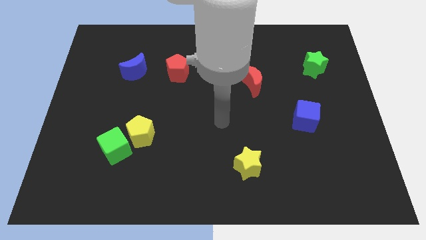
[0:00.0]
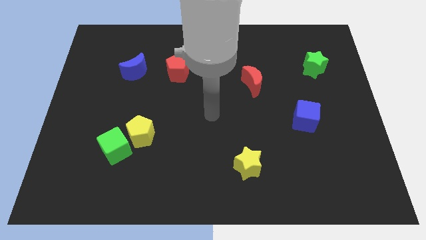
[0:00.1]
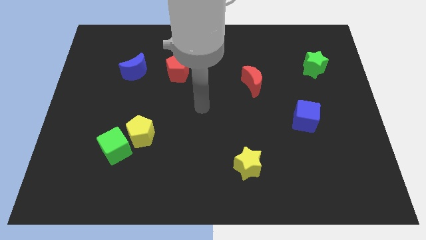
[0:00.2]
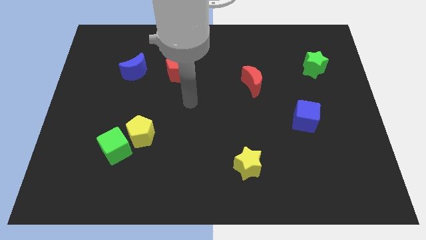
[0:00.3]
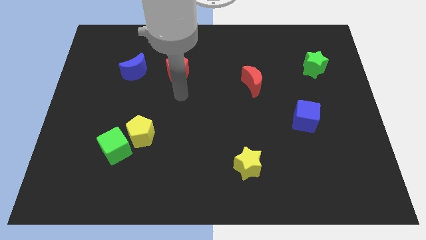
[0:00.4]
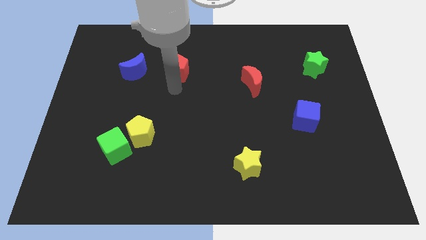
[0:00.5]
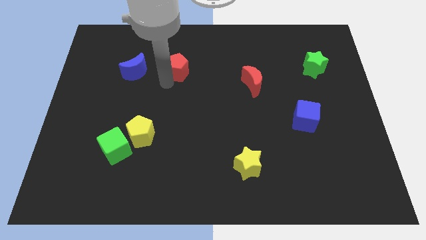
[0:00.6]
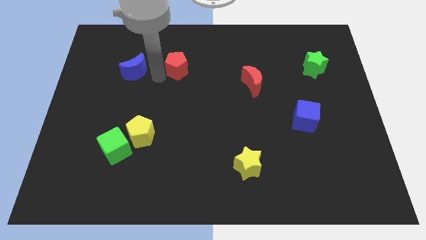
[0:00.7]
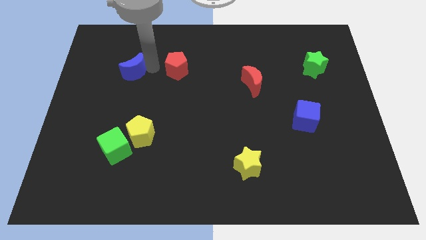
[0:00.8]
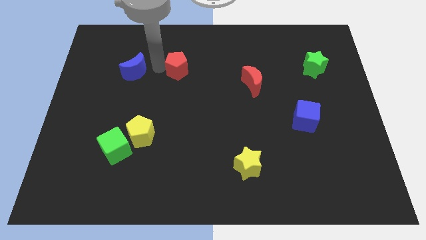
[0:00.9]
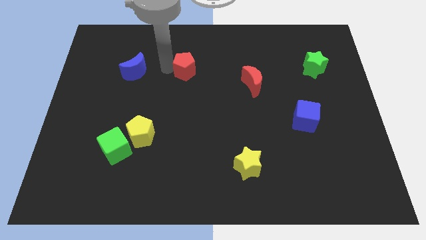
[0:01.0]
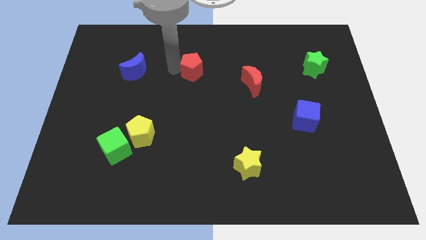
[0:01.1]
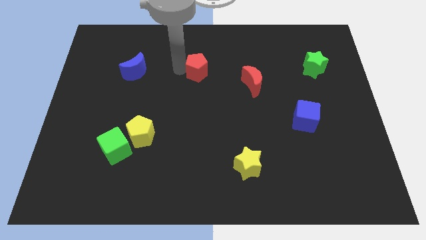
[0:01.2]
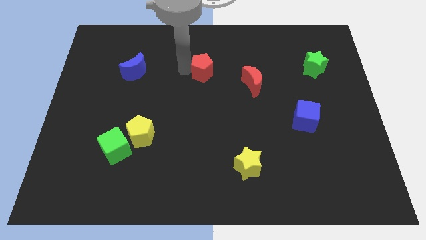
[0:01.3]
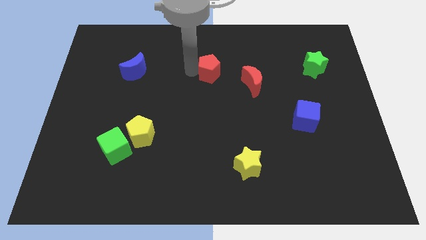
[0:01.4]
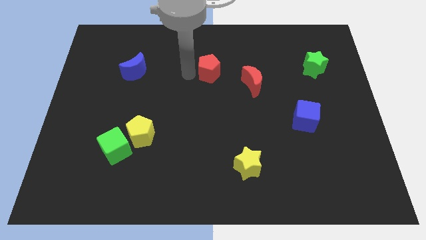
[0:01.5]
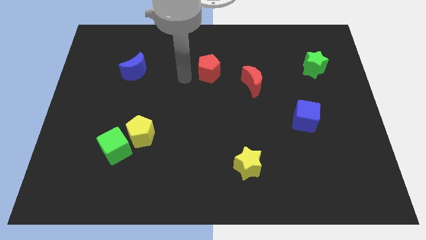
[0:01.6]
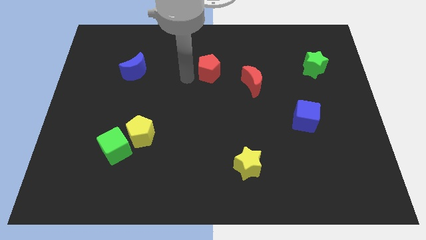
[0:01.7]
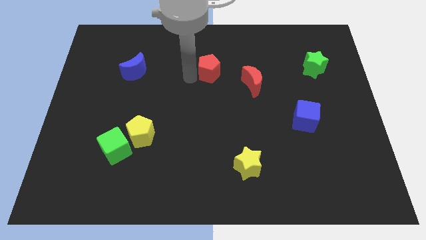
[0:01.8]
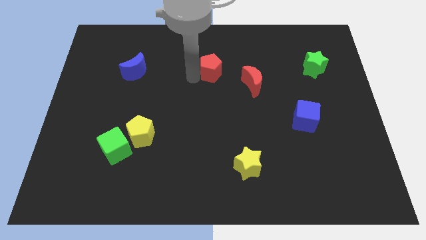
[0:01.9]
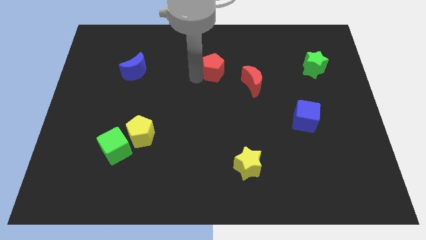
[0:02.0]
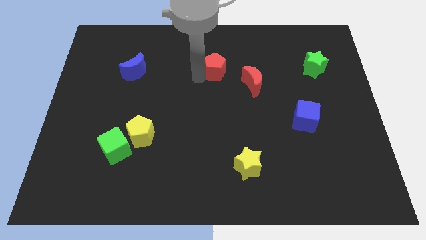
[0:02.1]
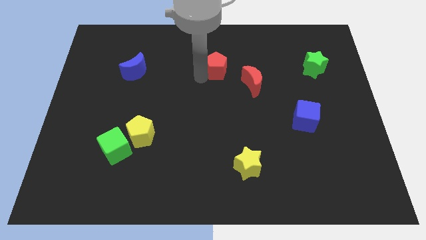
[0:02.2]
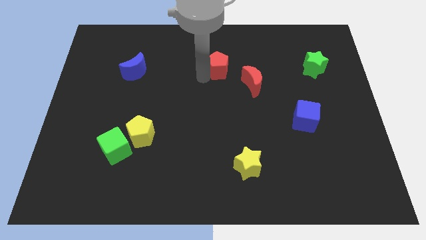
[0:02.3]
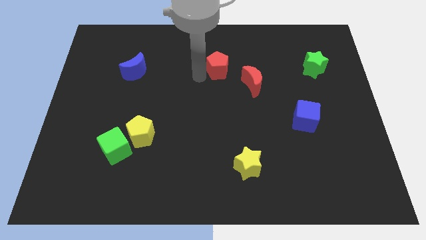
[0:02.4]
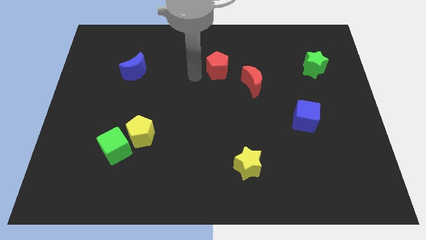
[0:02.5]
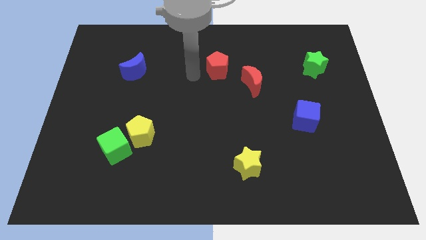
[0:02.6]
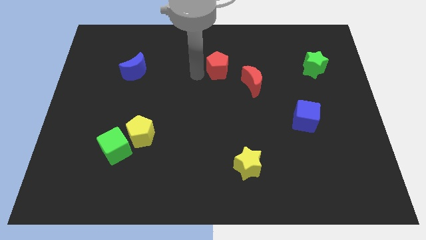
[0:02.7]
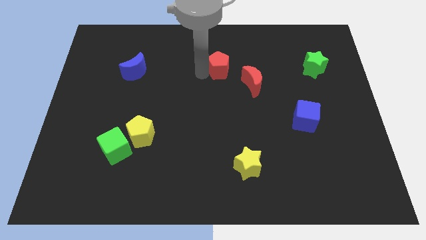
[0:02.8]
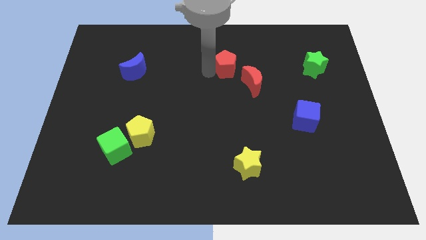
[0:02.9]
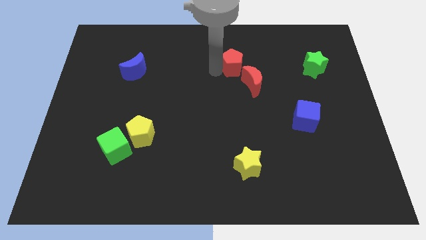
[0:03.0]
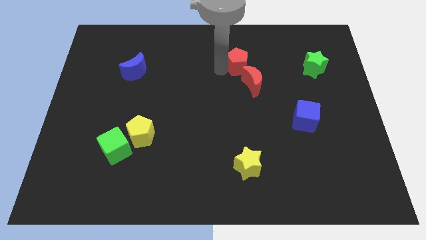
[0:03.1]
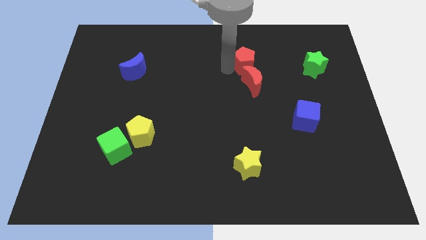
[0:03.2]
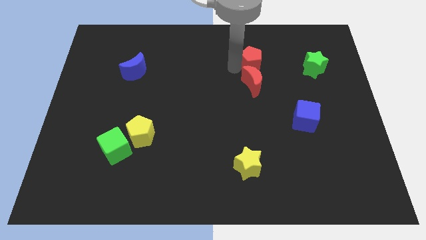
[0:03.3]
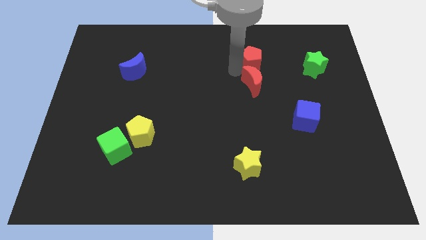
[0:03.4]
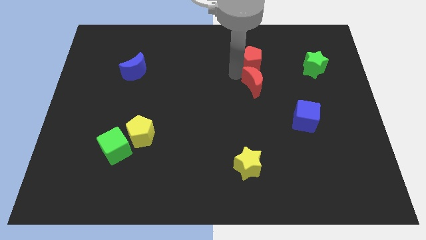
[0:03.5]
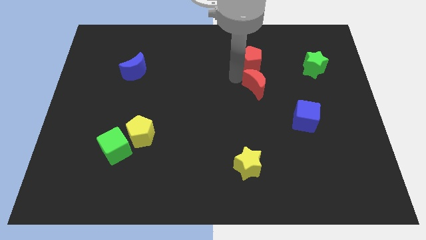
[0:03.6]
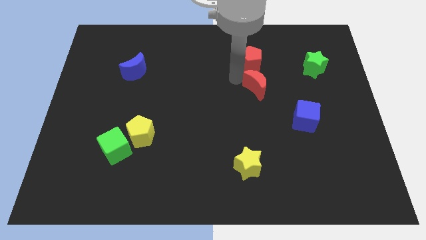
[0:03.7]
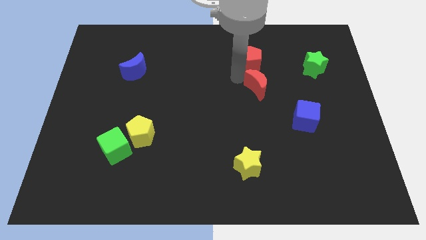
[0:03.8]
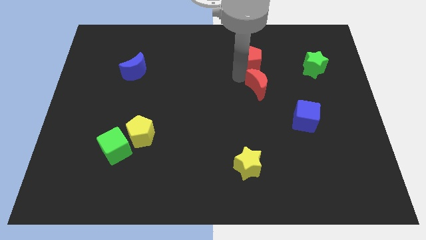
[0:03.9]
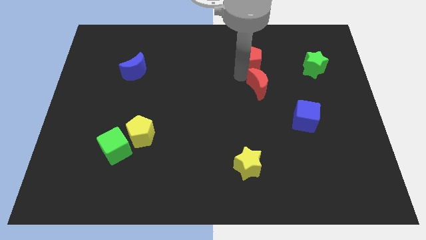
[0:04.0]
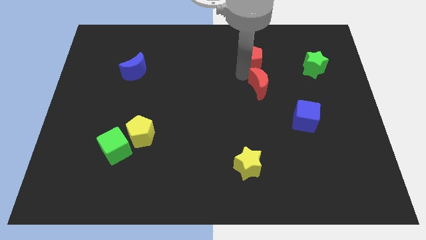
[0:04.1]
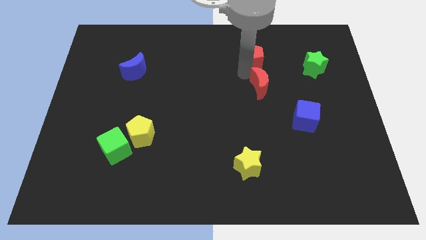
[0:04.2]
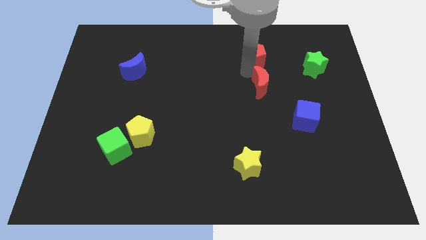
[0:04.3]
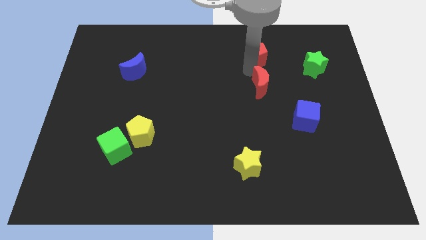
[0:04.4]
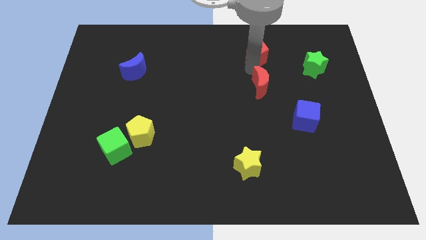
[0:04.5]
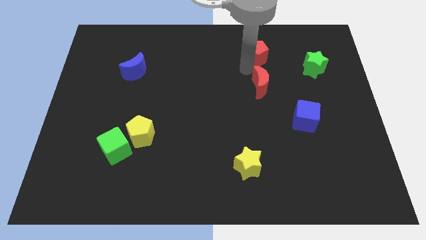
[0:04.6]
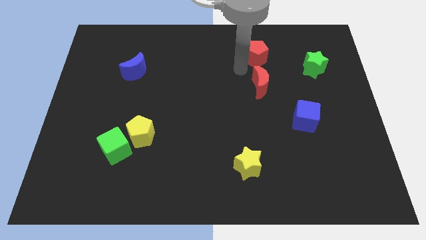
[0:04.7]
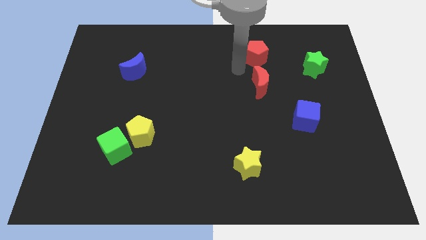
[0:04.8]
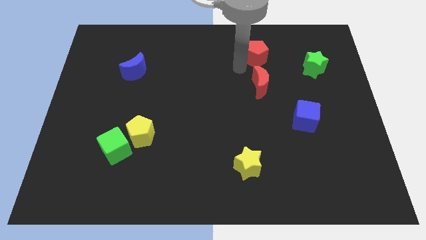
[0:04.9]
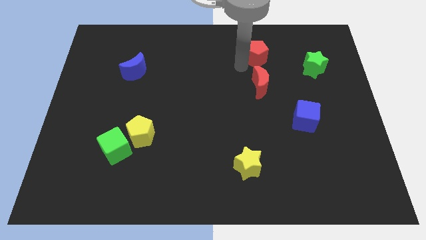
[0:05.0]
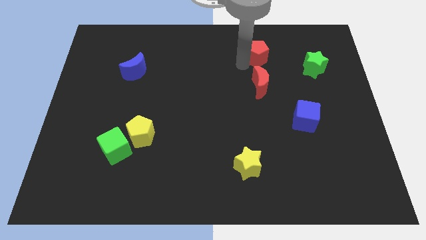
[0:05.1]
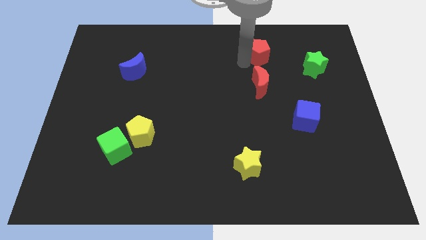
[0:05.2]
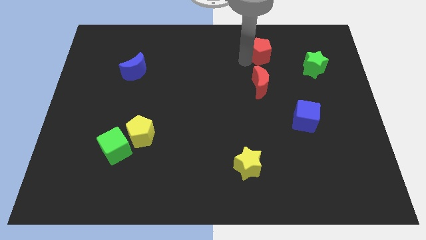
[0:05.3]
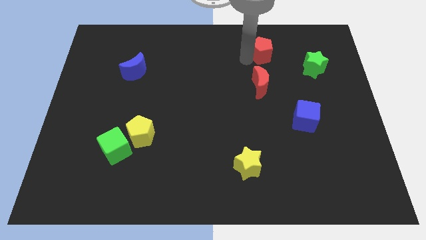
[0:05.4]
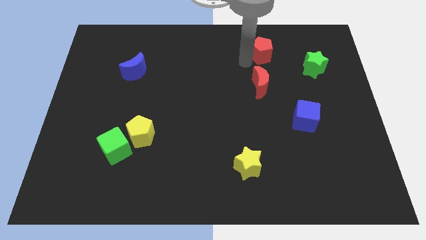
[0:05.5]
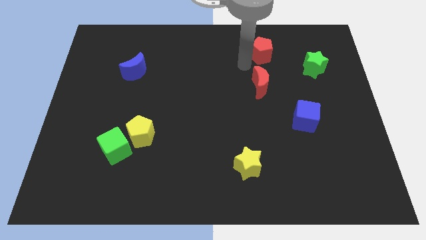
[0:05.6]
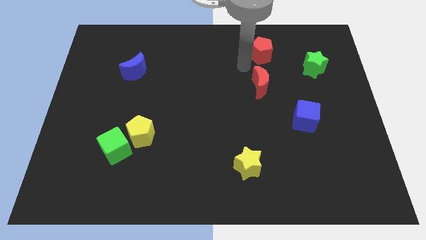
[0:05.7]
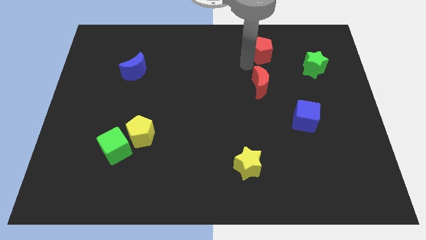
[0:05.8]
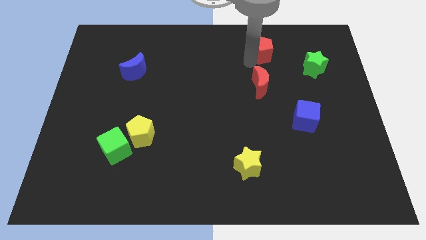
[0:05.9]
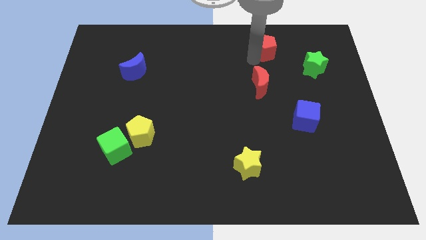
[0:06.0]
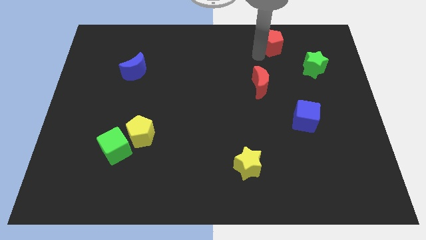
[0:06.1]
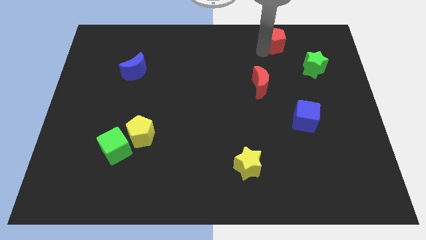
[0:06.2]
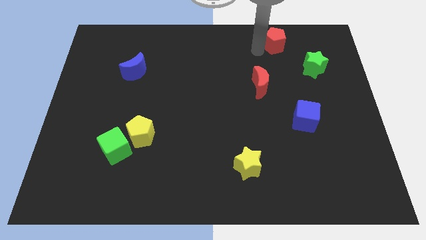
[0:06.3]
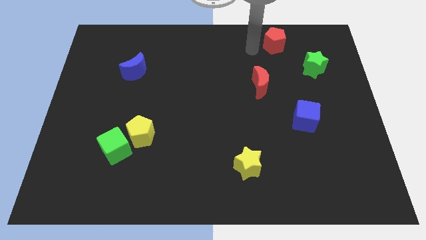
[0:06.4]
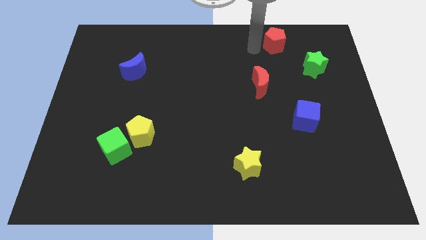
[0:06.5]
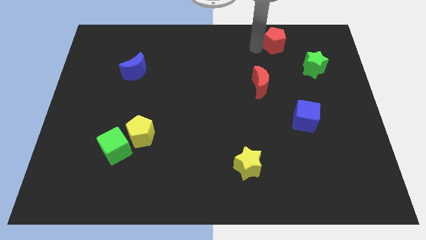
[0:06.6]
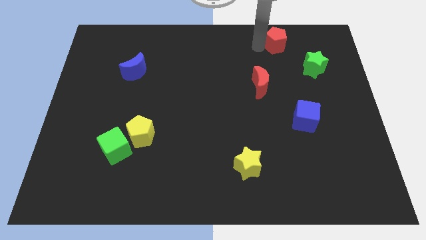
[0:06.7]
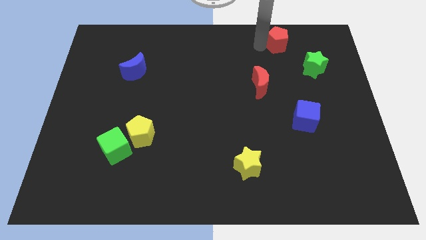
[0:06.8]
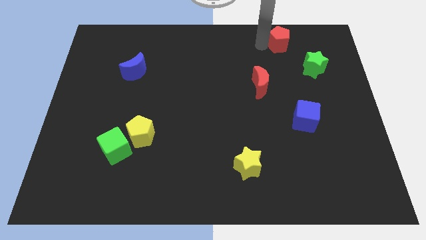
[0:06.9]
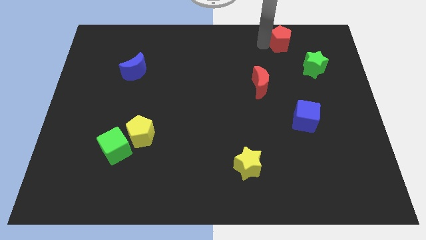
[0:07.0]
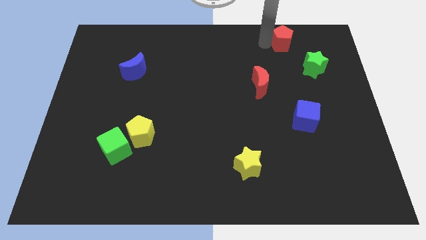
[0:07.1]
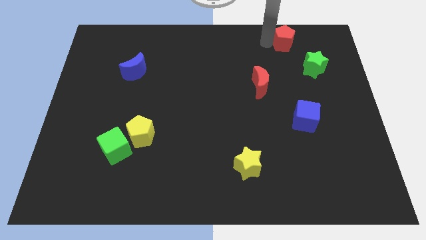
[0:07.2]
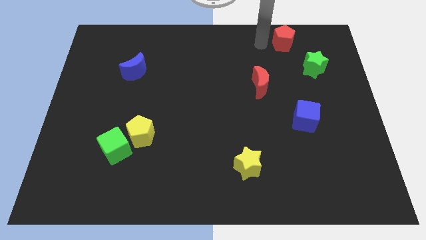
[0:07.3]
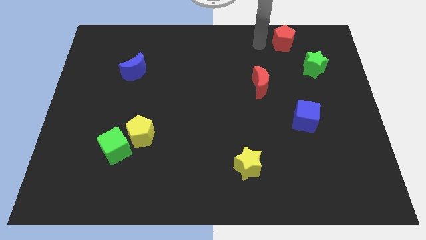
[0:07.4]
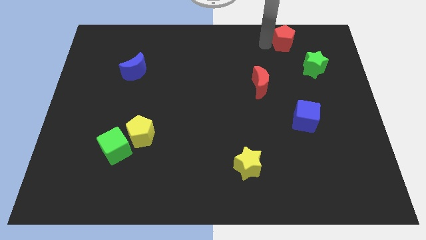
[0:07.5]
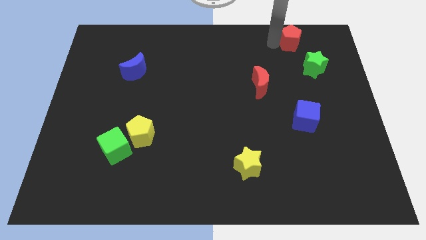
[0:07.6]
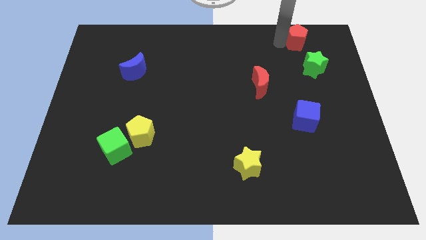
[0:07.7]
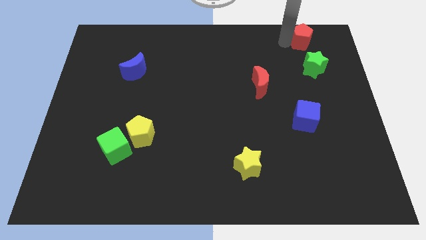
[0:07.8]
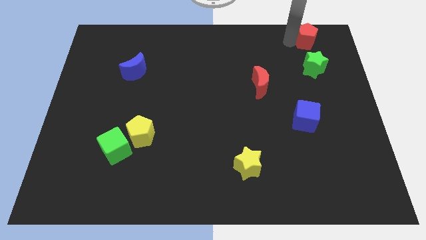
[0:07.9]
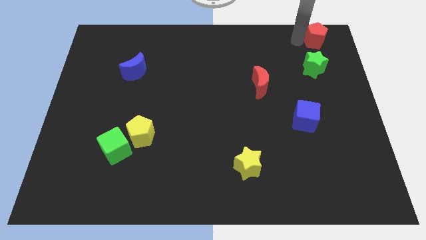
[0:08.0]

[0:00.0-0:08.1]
slide the red pentagon to the upper right corner
